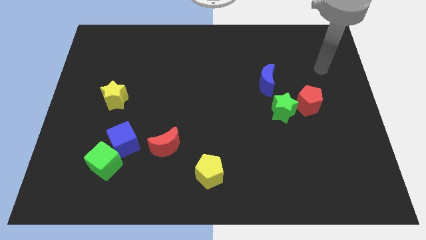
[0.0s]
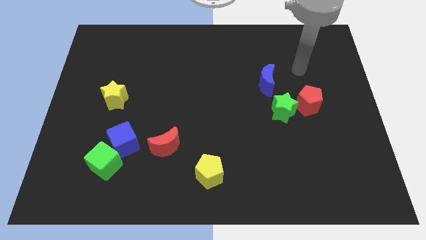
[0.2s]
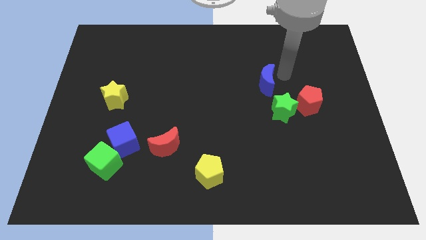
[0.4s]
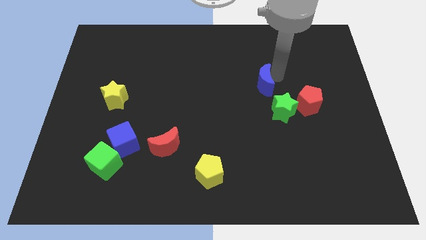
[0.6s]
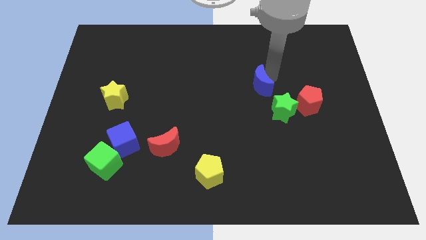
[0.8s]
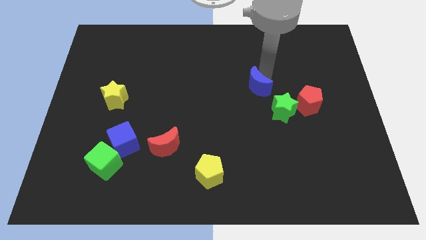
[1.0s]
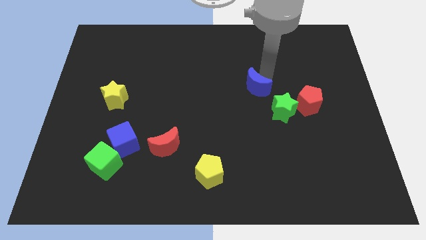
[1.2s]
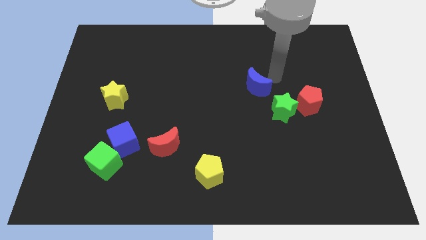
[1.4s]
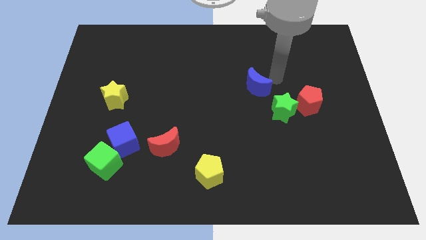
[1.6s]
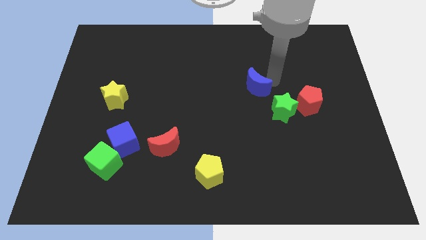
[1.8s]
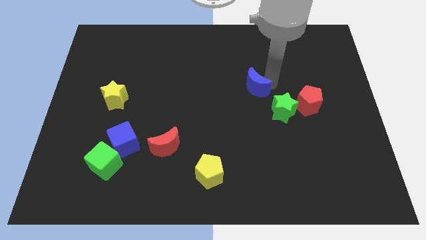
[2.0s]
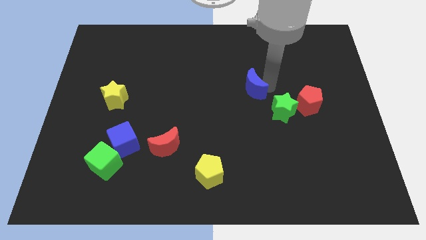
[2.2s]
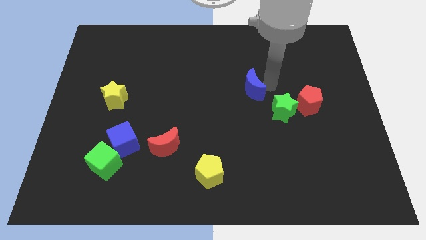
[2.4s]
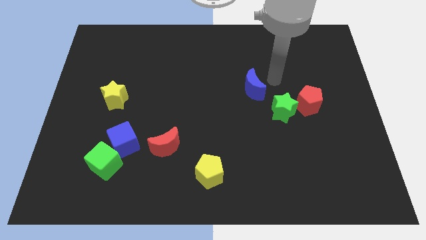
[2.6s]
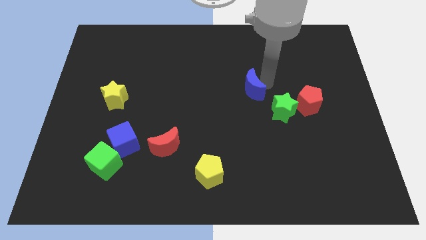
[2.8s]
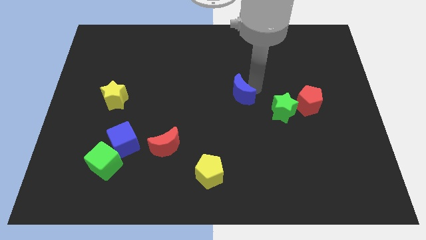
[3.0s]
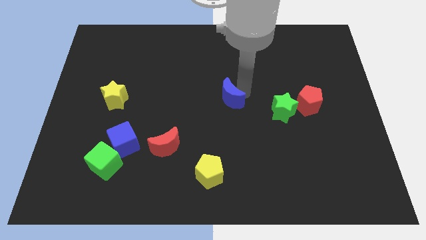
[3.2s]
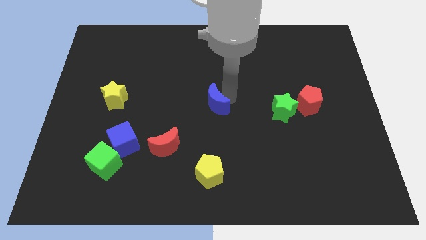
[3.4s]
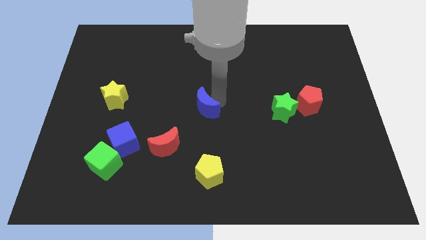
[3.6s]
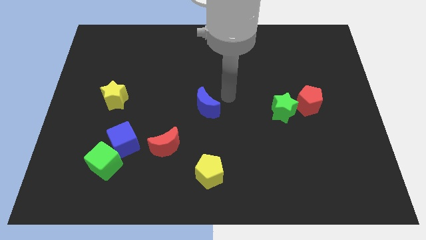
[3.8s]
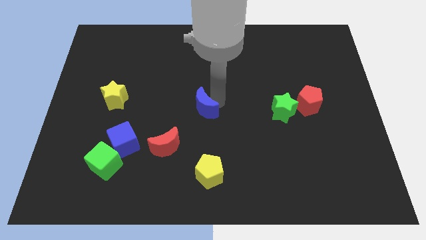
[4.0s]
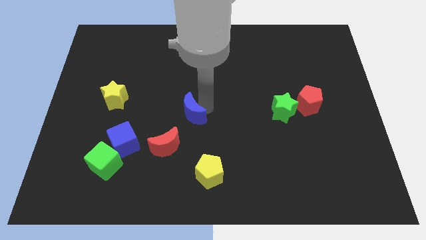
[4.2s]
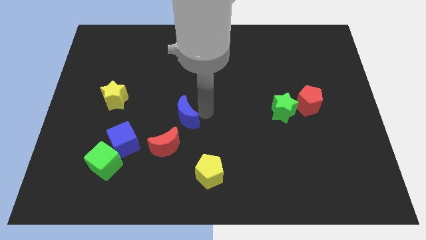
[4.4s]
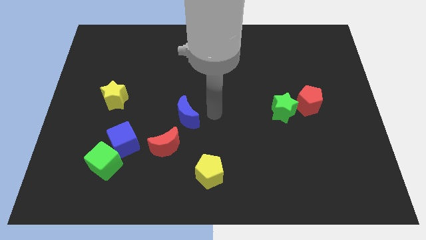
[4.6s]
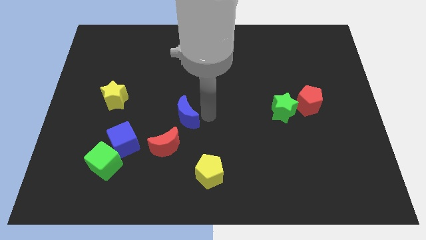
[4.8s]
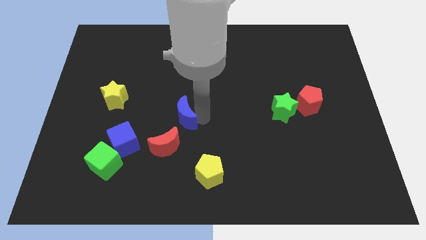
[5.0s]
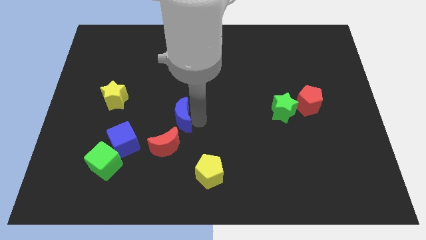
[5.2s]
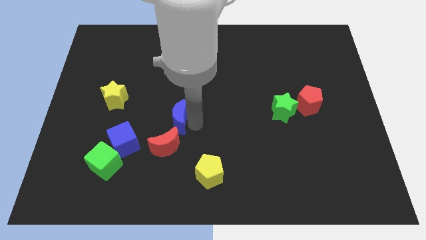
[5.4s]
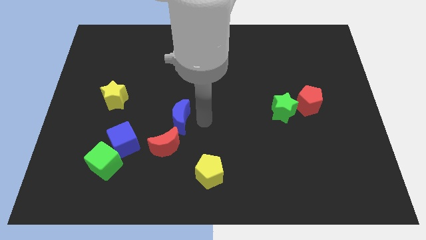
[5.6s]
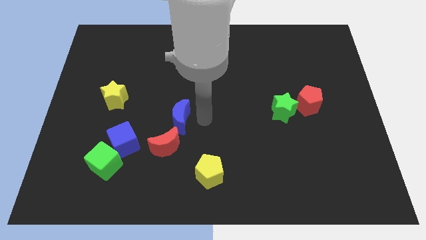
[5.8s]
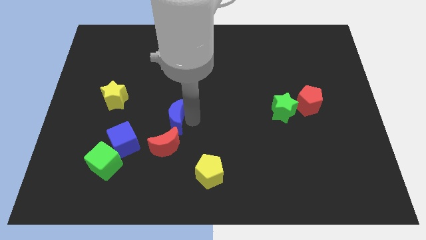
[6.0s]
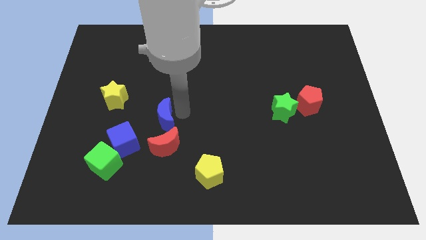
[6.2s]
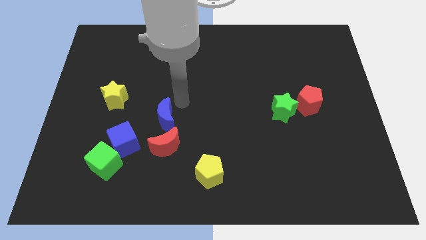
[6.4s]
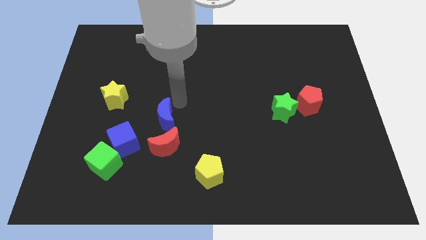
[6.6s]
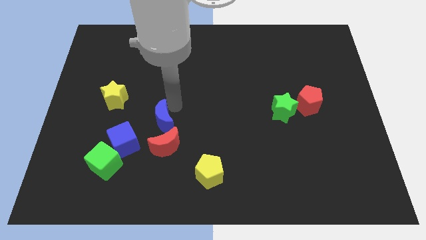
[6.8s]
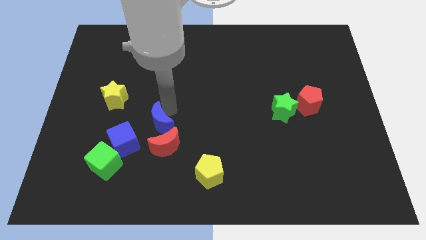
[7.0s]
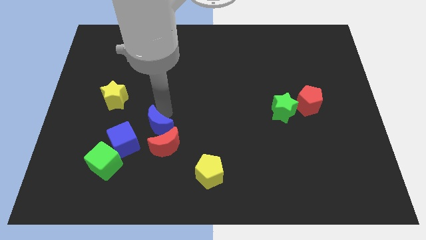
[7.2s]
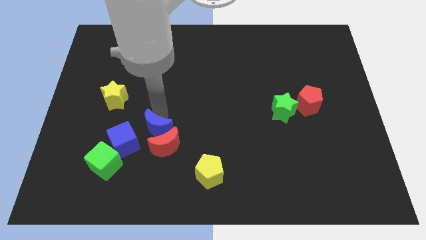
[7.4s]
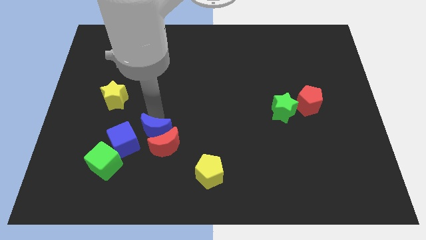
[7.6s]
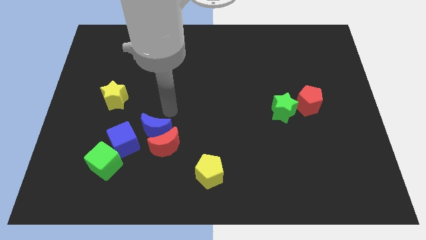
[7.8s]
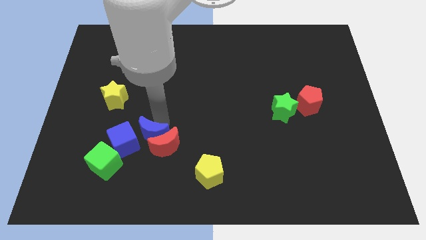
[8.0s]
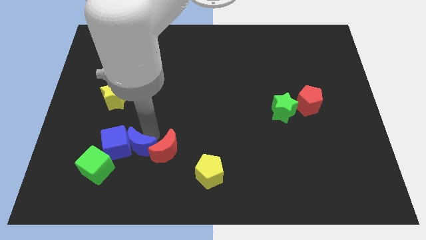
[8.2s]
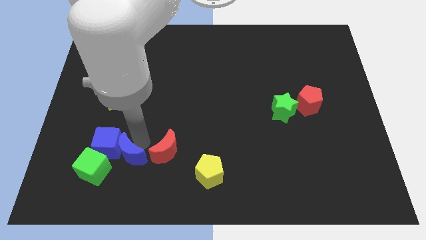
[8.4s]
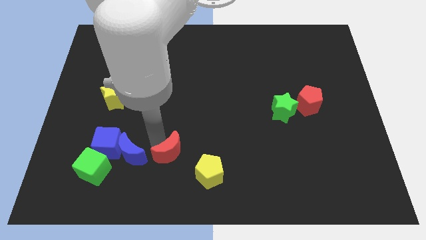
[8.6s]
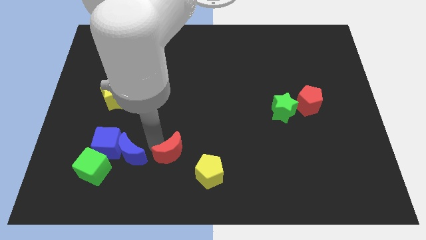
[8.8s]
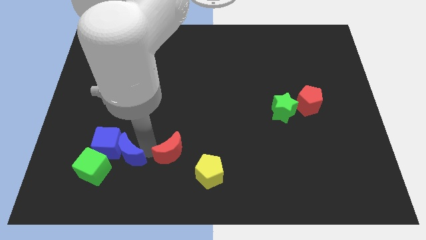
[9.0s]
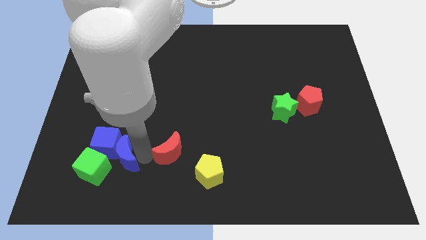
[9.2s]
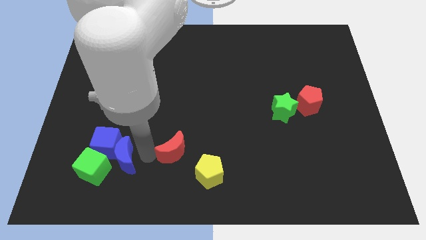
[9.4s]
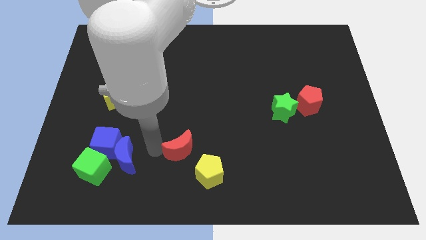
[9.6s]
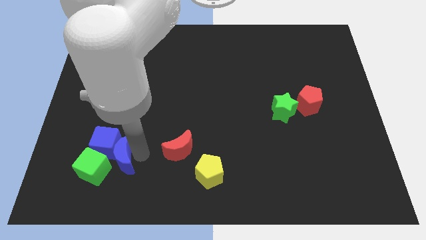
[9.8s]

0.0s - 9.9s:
move the blue moon towards the green cube

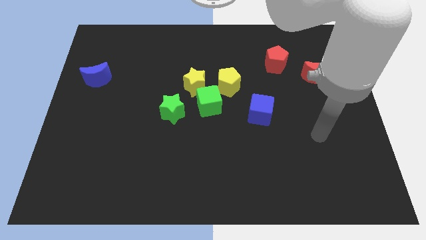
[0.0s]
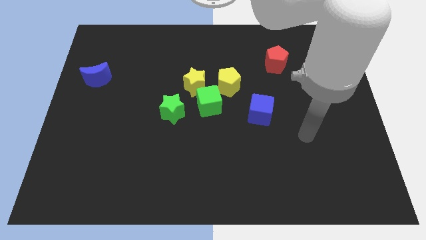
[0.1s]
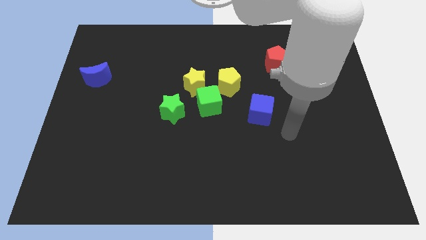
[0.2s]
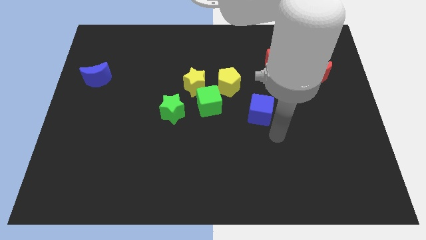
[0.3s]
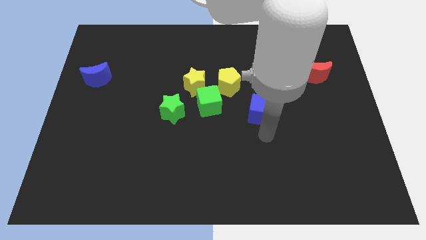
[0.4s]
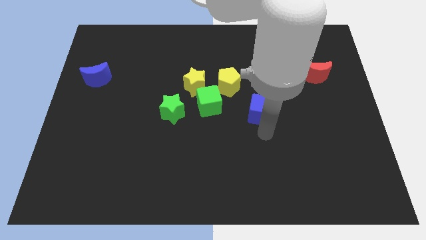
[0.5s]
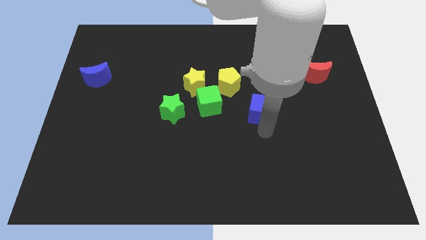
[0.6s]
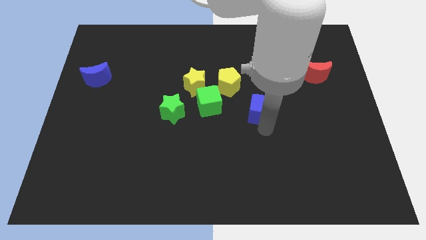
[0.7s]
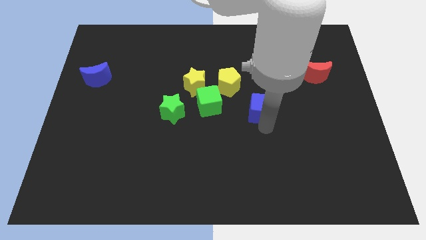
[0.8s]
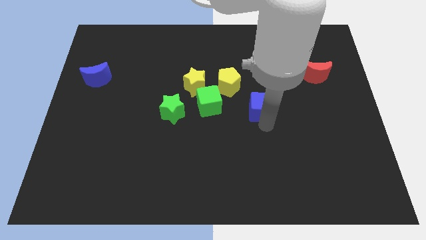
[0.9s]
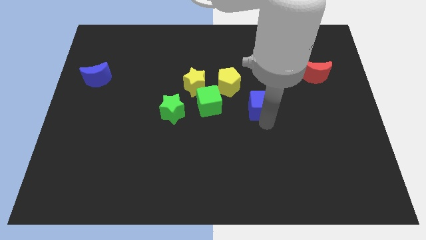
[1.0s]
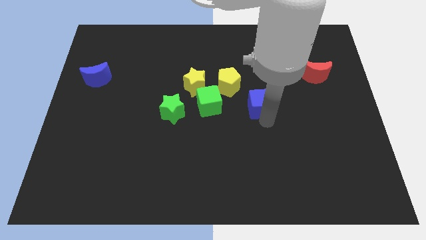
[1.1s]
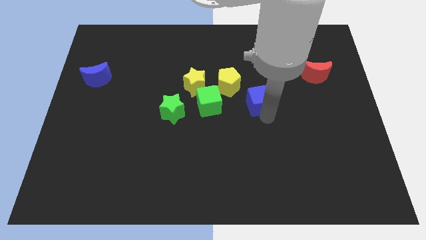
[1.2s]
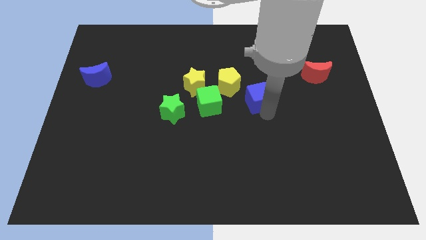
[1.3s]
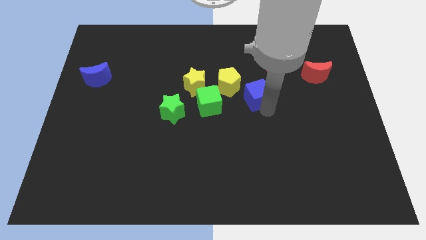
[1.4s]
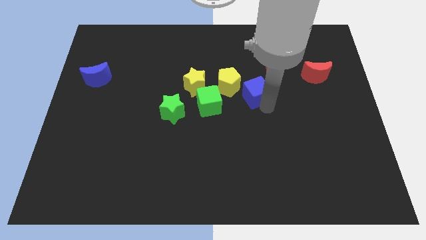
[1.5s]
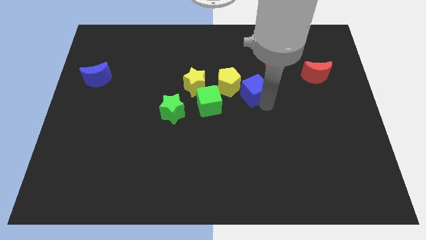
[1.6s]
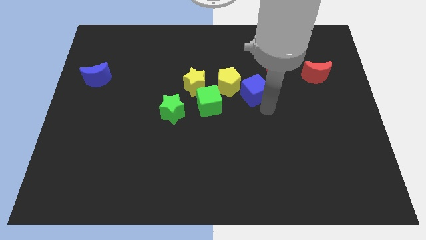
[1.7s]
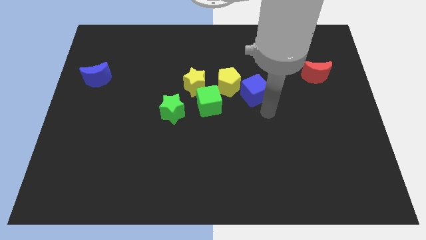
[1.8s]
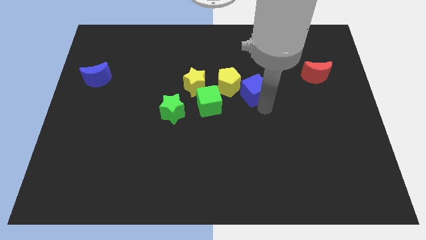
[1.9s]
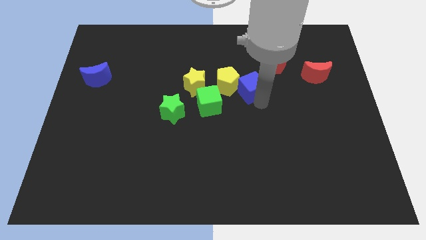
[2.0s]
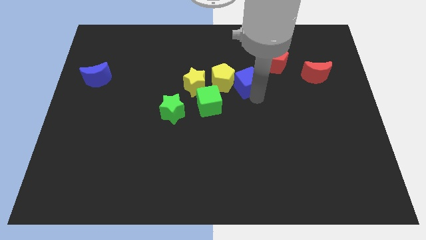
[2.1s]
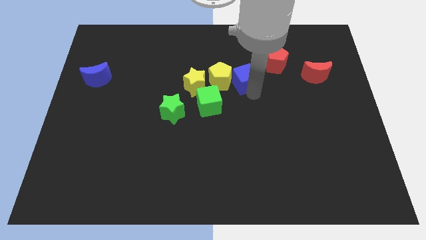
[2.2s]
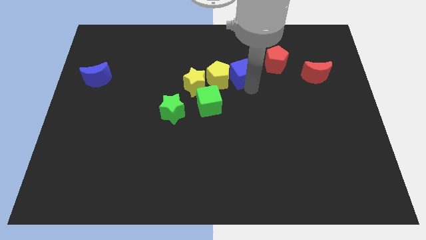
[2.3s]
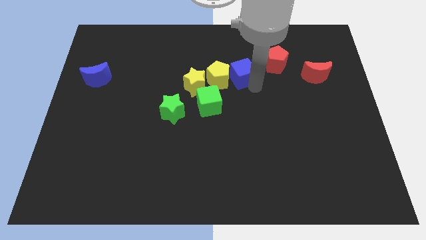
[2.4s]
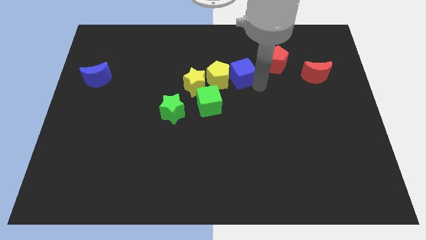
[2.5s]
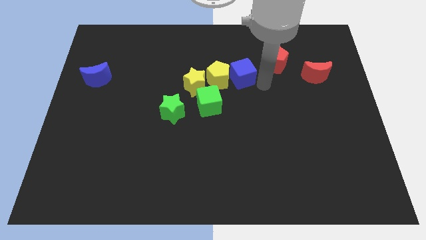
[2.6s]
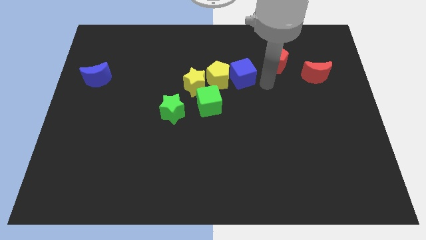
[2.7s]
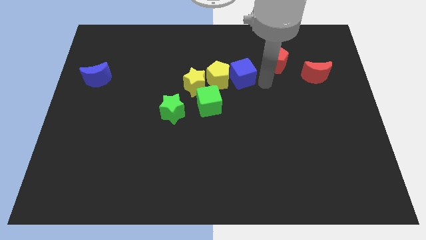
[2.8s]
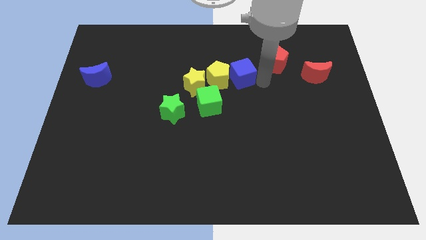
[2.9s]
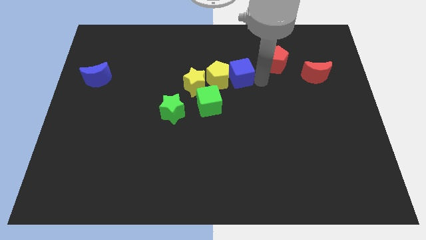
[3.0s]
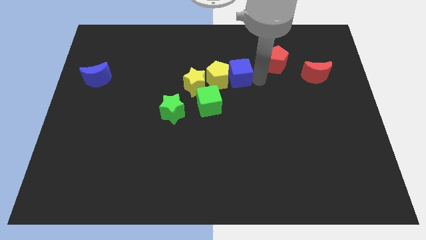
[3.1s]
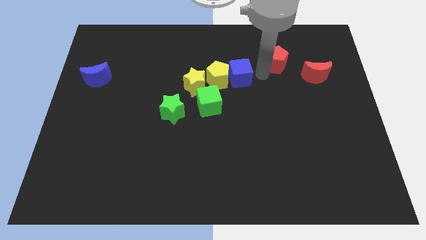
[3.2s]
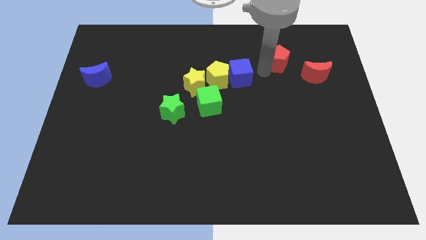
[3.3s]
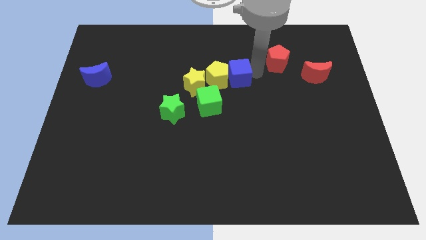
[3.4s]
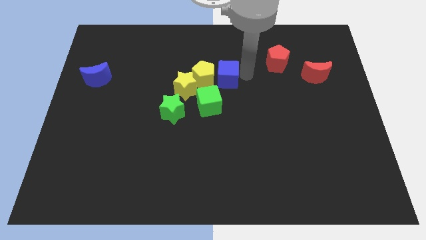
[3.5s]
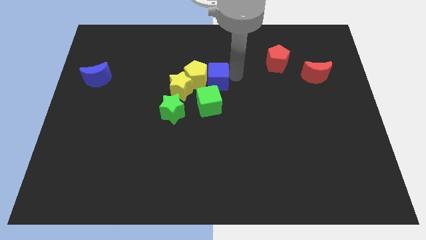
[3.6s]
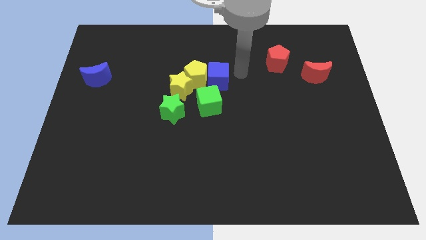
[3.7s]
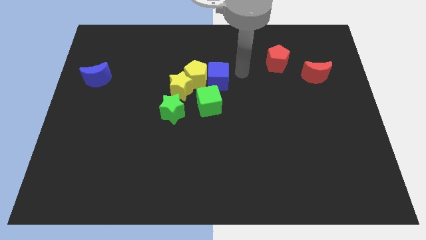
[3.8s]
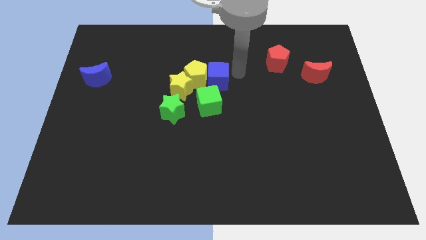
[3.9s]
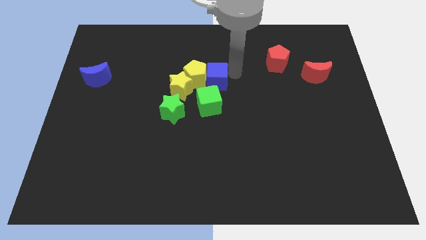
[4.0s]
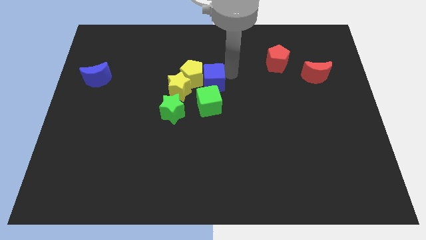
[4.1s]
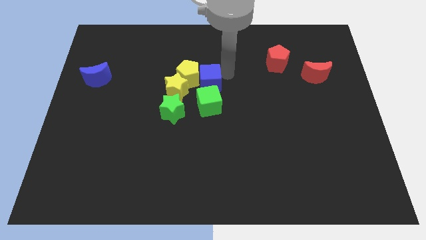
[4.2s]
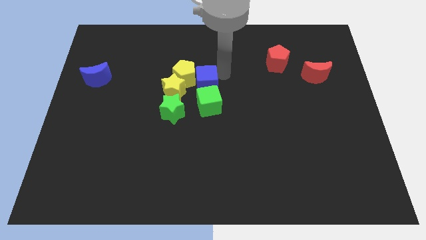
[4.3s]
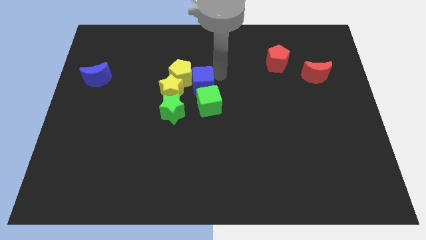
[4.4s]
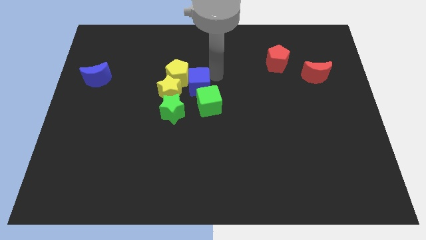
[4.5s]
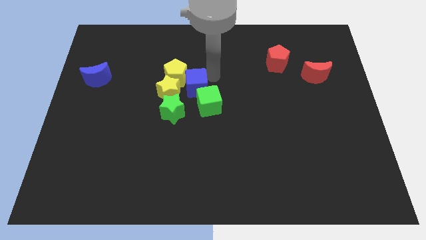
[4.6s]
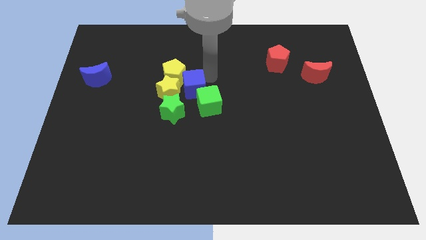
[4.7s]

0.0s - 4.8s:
move the blue cube to the yellow star
